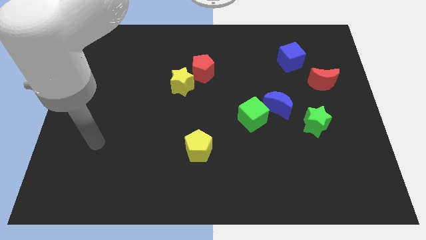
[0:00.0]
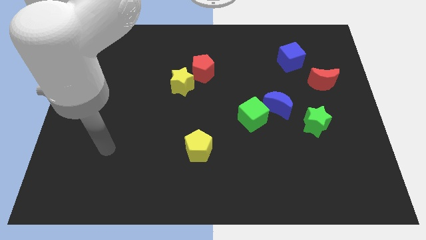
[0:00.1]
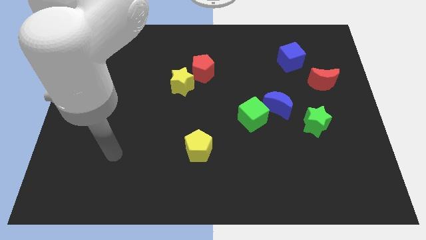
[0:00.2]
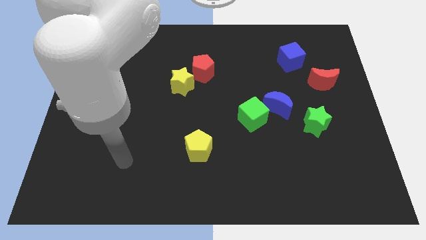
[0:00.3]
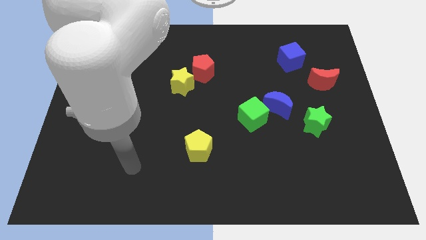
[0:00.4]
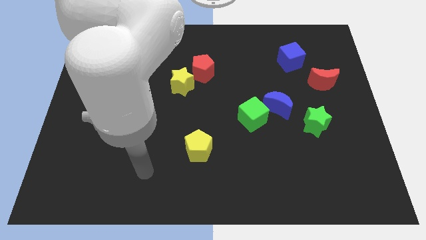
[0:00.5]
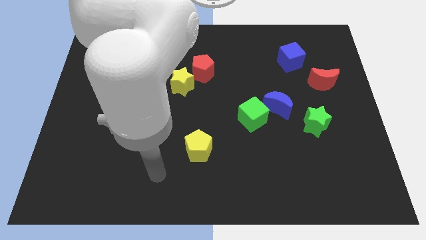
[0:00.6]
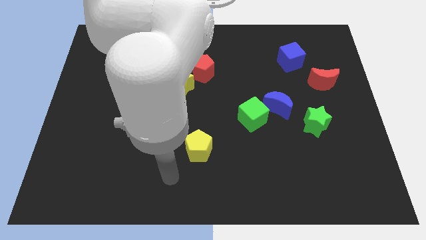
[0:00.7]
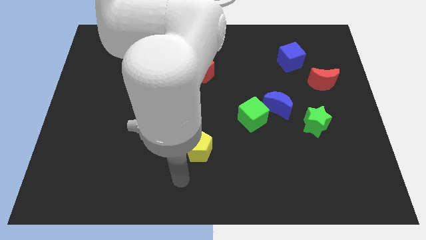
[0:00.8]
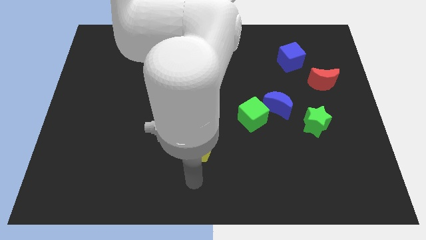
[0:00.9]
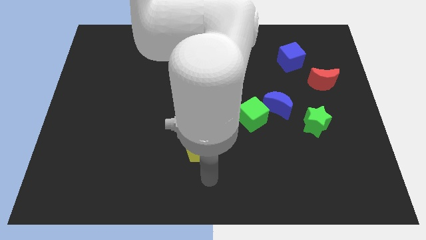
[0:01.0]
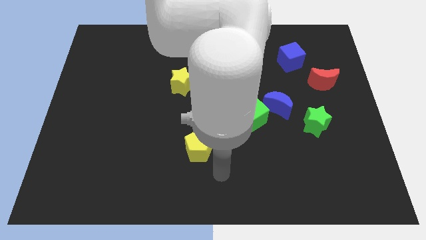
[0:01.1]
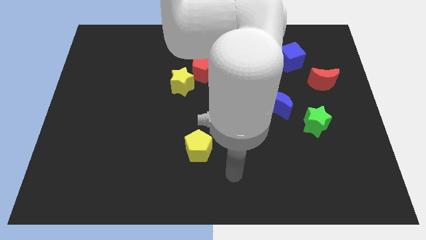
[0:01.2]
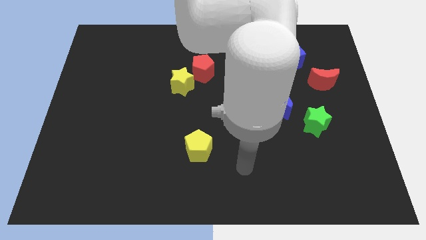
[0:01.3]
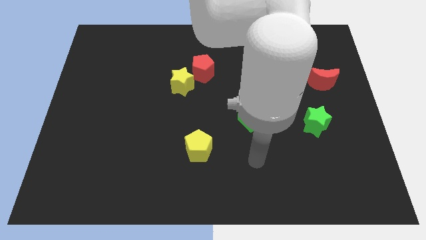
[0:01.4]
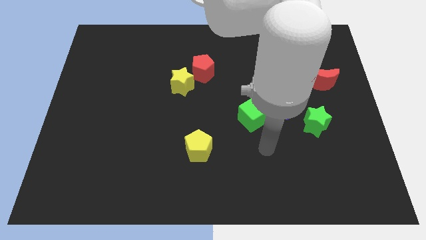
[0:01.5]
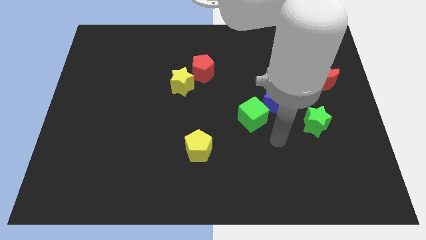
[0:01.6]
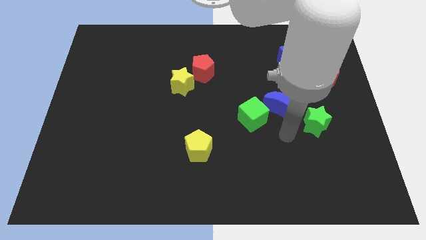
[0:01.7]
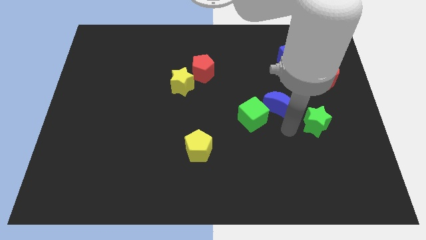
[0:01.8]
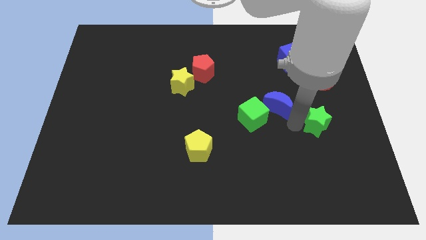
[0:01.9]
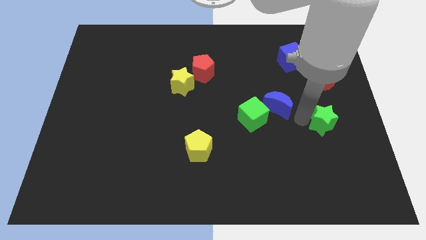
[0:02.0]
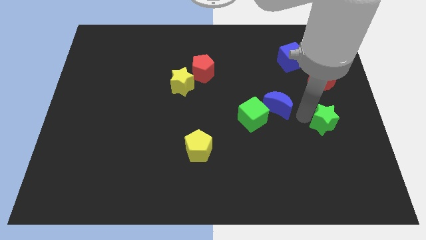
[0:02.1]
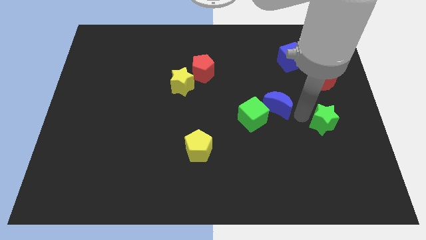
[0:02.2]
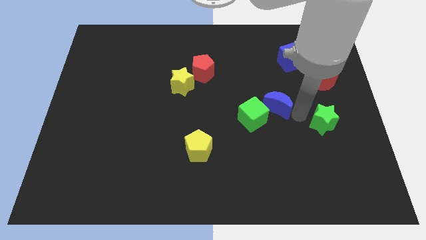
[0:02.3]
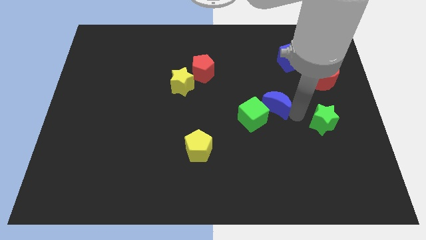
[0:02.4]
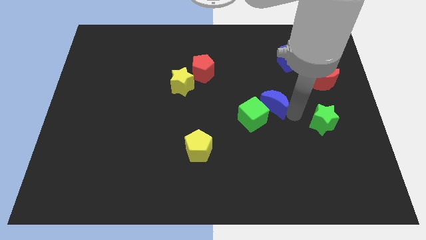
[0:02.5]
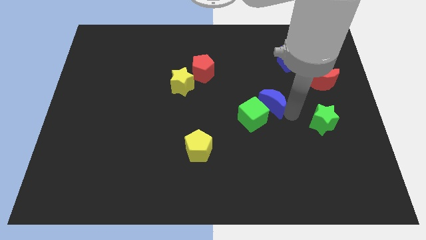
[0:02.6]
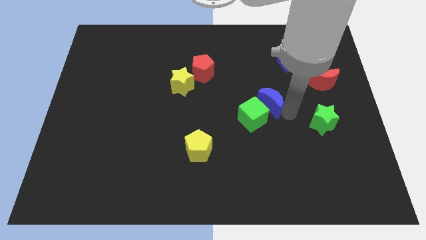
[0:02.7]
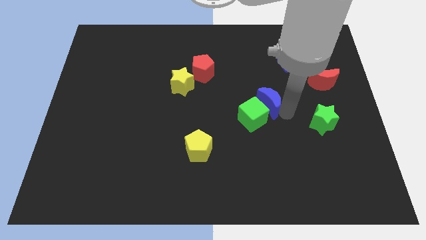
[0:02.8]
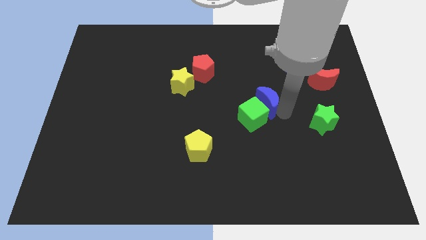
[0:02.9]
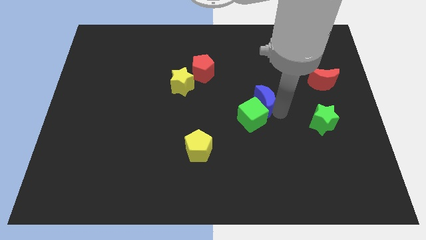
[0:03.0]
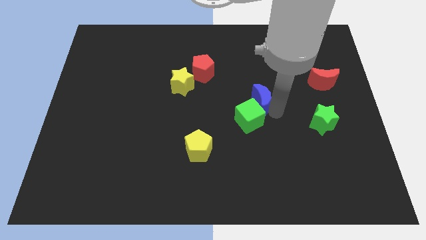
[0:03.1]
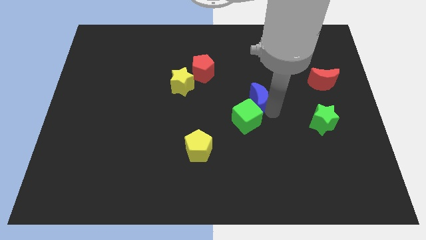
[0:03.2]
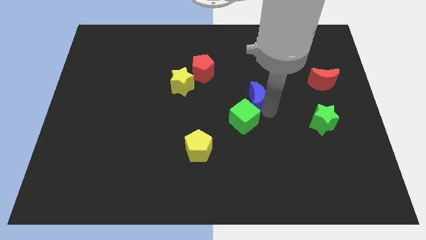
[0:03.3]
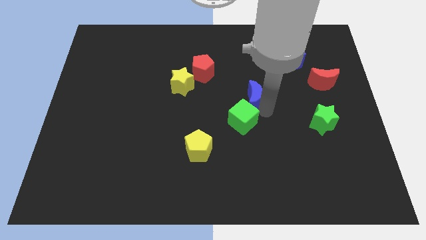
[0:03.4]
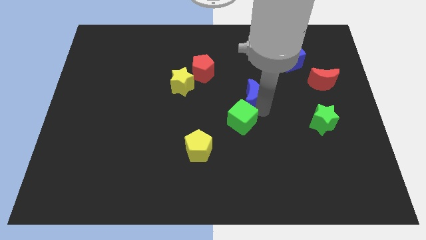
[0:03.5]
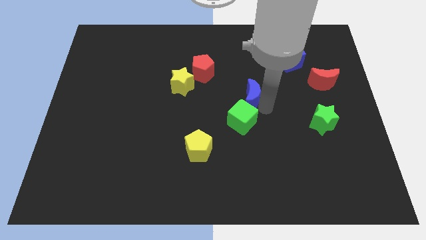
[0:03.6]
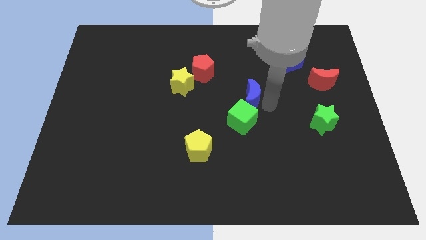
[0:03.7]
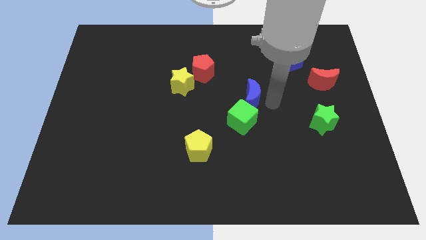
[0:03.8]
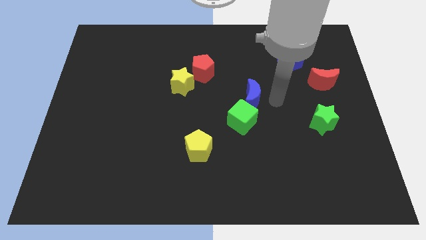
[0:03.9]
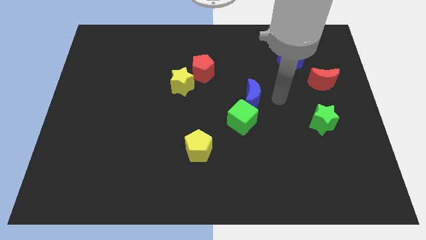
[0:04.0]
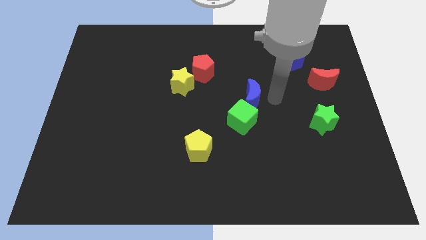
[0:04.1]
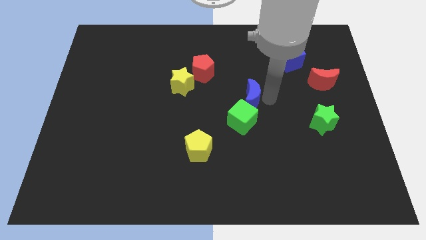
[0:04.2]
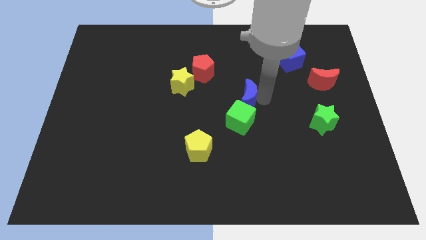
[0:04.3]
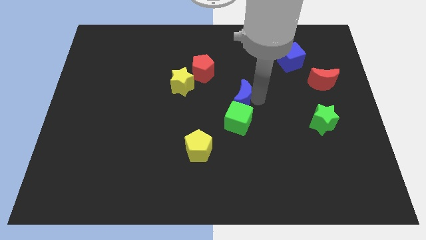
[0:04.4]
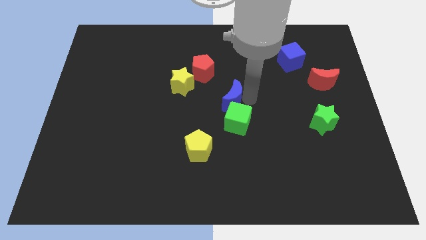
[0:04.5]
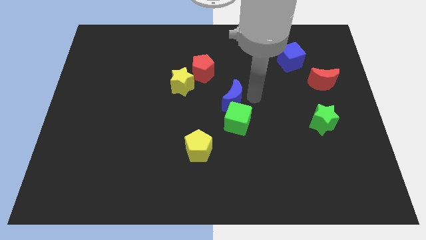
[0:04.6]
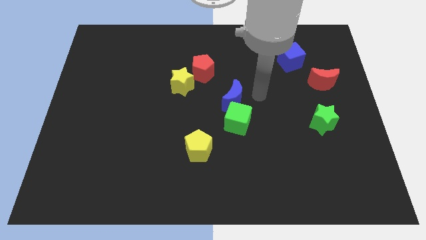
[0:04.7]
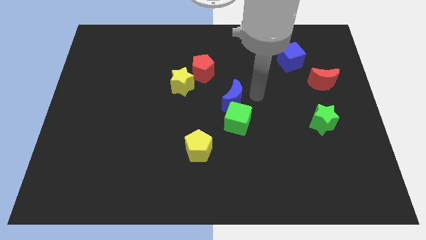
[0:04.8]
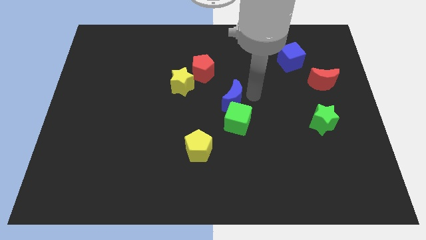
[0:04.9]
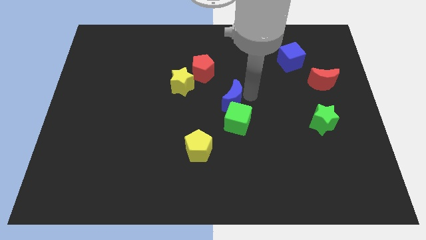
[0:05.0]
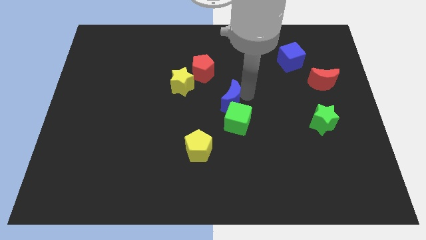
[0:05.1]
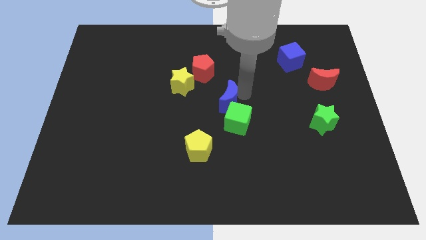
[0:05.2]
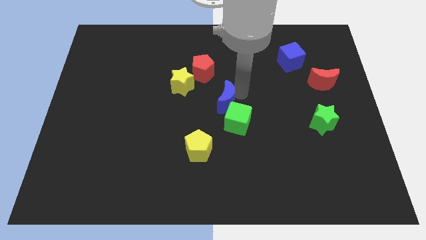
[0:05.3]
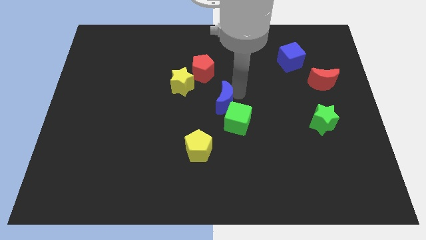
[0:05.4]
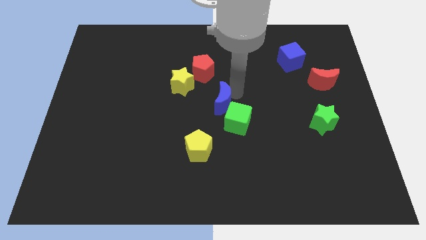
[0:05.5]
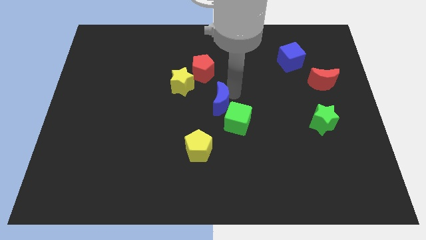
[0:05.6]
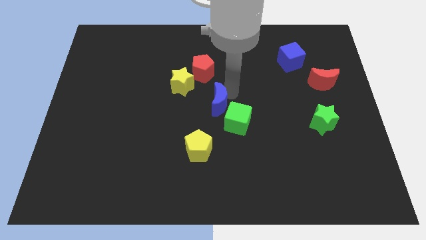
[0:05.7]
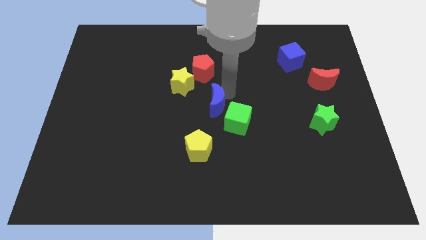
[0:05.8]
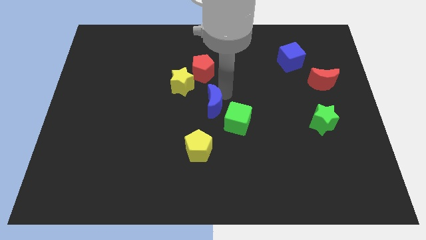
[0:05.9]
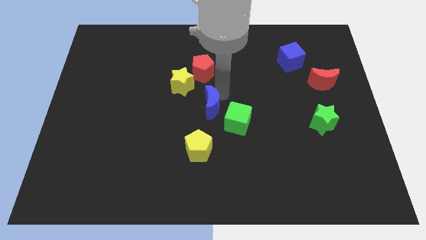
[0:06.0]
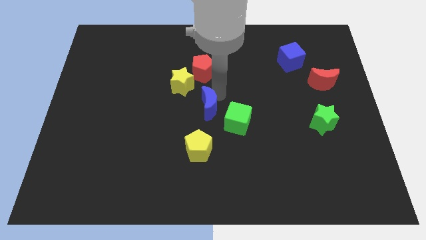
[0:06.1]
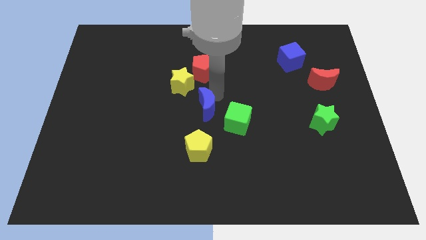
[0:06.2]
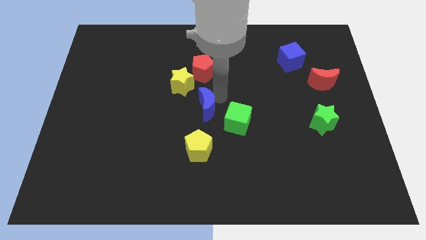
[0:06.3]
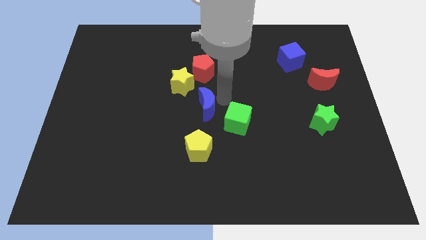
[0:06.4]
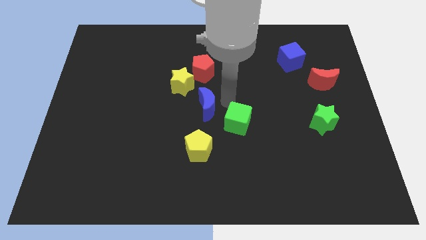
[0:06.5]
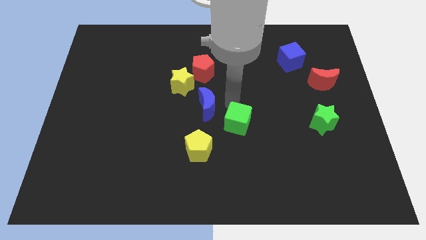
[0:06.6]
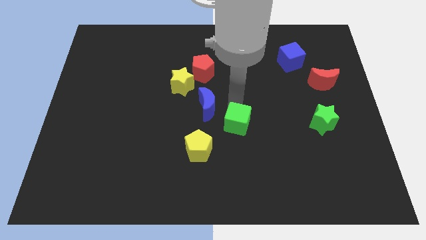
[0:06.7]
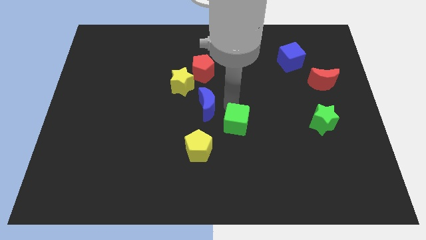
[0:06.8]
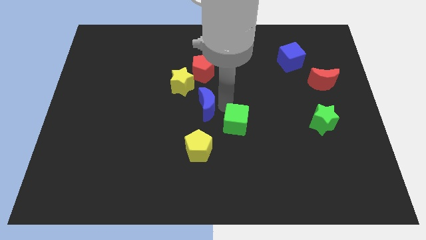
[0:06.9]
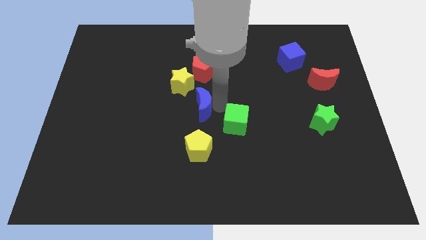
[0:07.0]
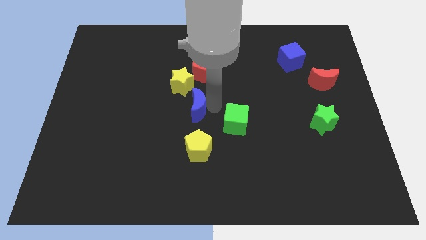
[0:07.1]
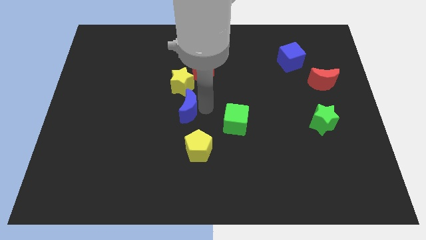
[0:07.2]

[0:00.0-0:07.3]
push the blue moon left

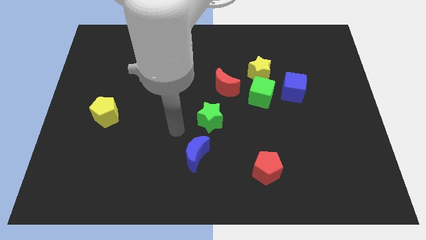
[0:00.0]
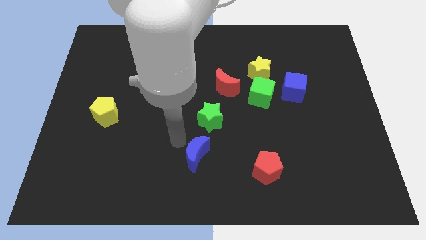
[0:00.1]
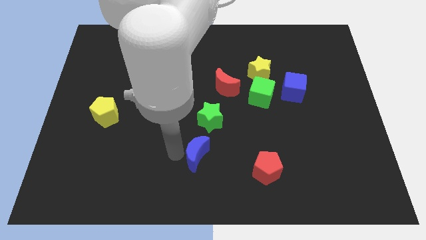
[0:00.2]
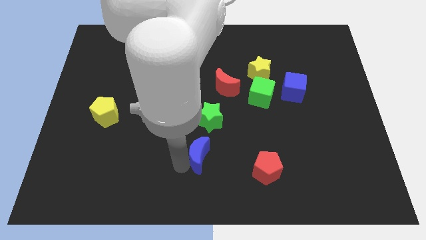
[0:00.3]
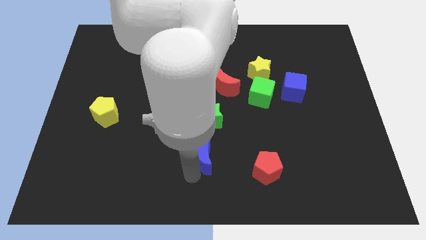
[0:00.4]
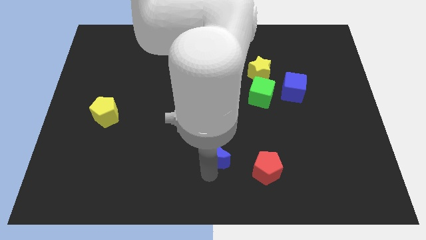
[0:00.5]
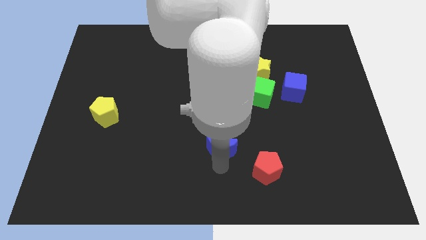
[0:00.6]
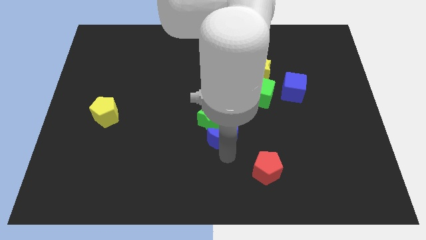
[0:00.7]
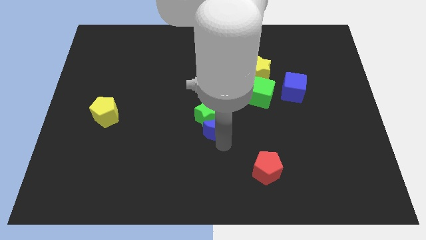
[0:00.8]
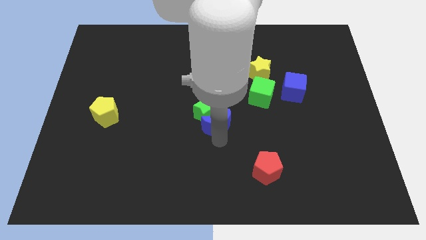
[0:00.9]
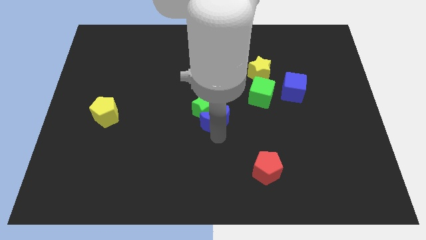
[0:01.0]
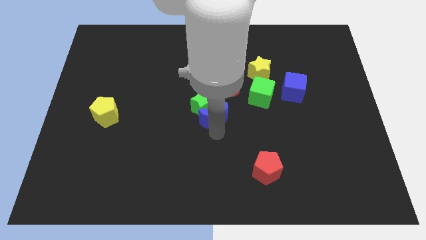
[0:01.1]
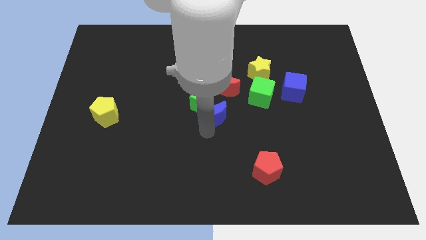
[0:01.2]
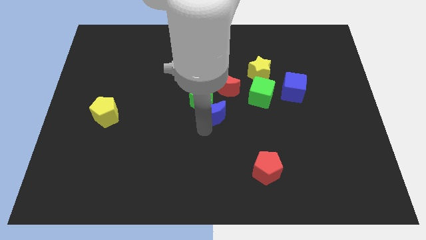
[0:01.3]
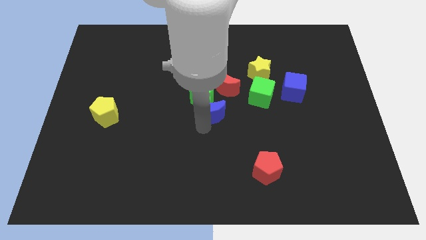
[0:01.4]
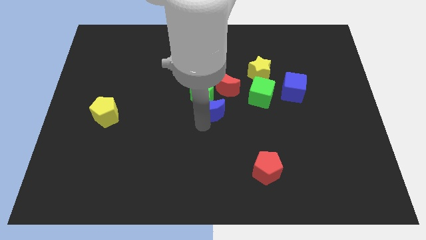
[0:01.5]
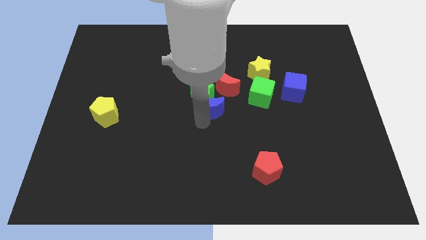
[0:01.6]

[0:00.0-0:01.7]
push the green star up a little bit
